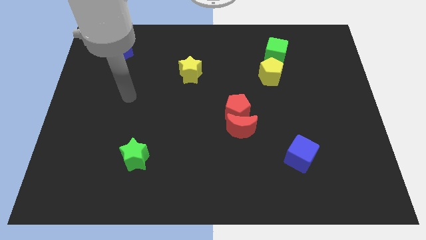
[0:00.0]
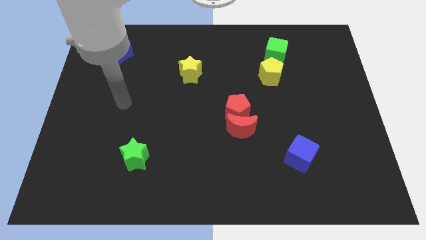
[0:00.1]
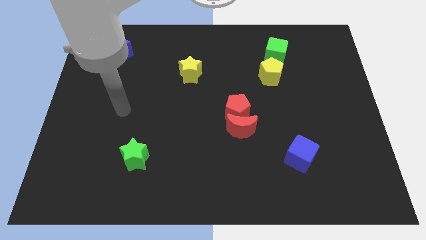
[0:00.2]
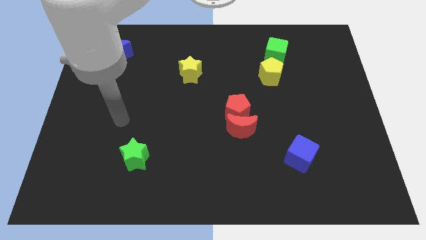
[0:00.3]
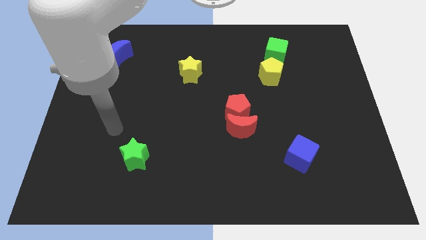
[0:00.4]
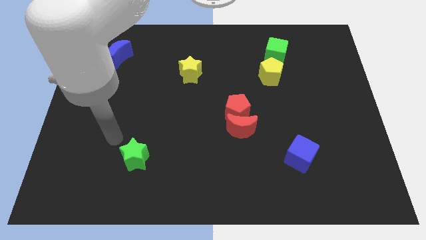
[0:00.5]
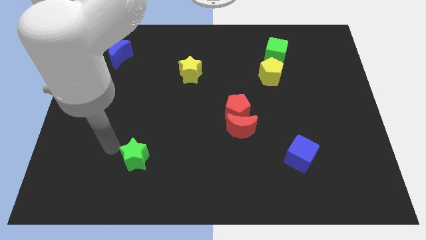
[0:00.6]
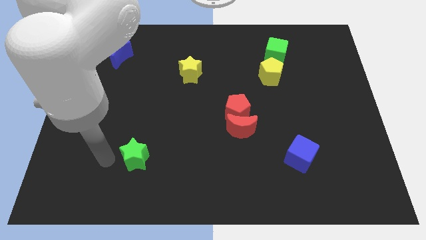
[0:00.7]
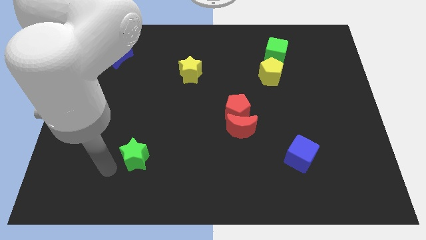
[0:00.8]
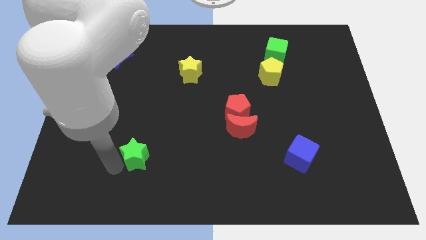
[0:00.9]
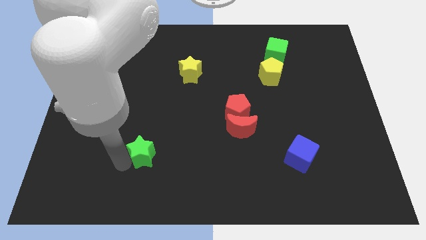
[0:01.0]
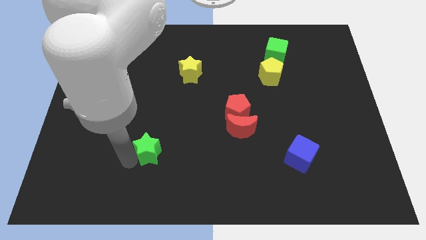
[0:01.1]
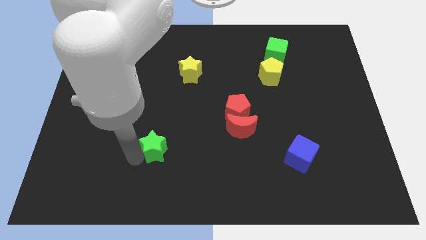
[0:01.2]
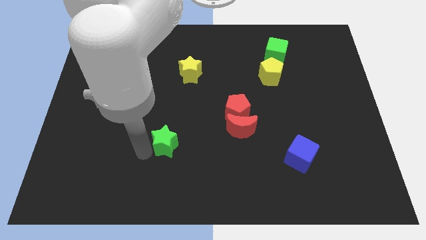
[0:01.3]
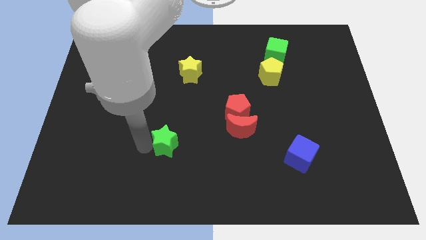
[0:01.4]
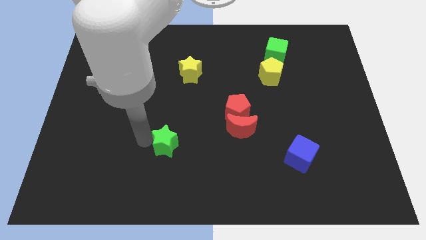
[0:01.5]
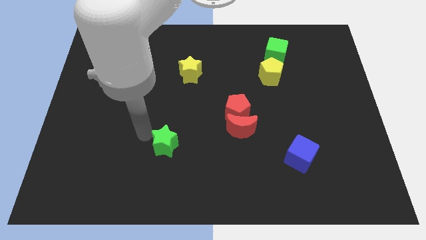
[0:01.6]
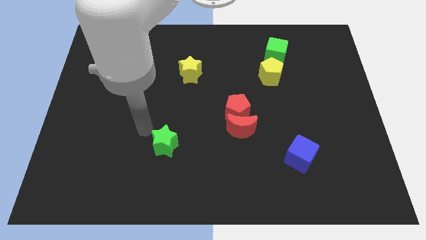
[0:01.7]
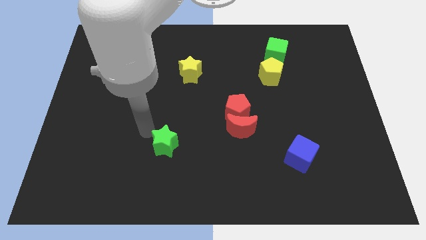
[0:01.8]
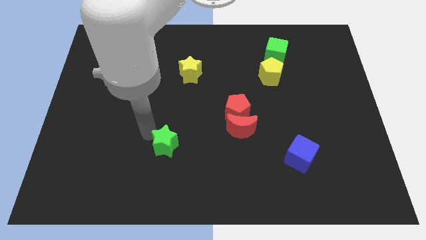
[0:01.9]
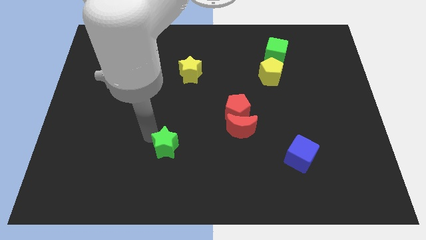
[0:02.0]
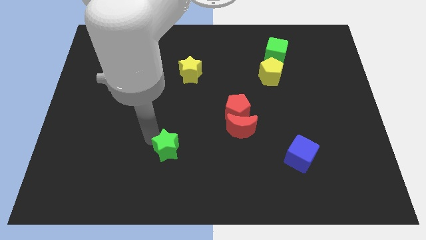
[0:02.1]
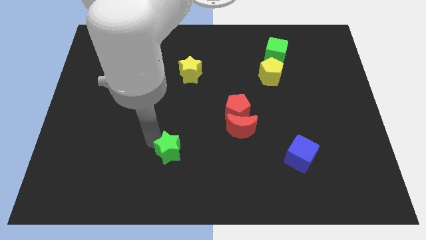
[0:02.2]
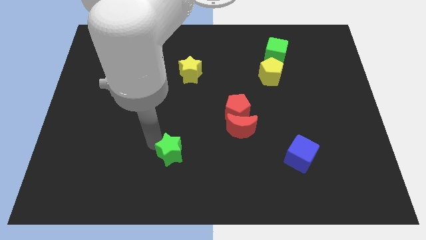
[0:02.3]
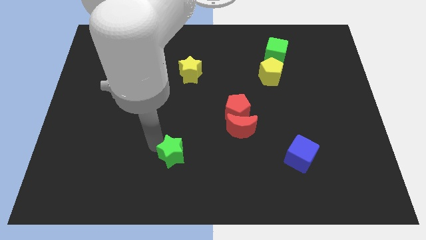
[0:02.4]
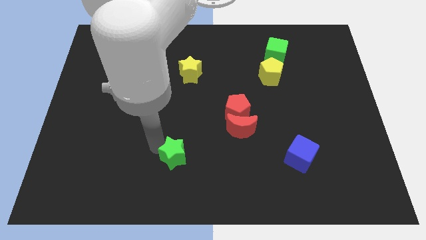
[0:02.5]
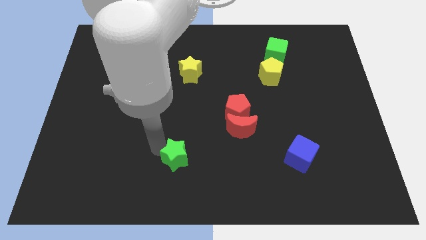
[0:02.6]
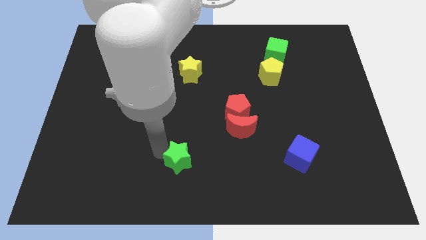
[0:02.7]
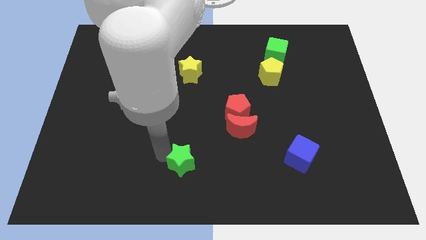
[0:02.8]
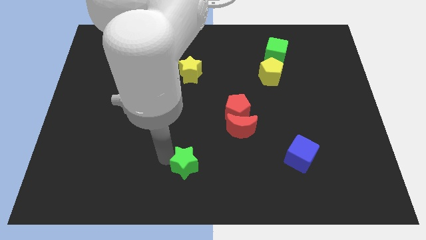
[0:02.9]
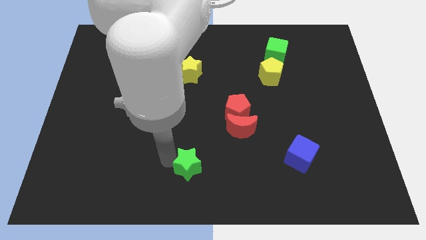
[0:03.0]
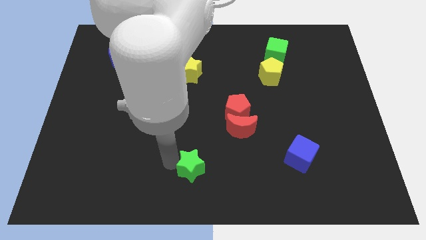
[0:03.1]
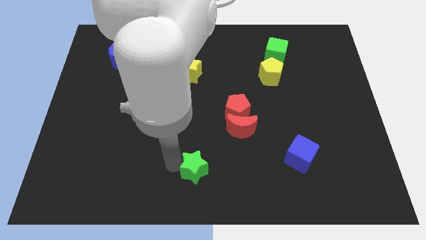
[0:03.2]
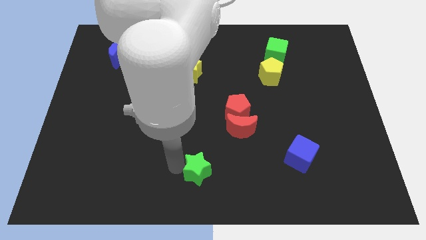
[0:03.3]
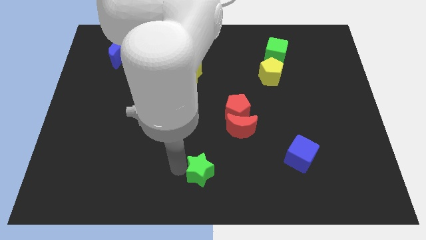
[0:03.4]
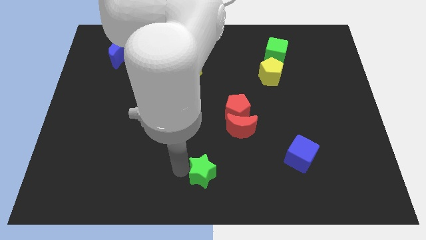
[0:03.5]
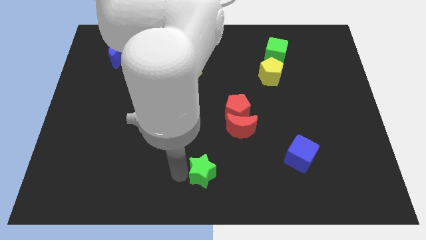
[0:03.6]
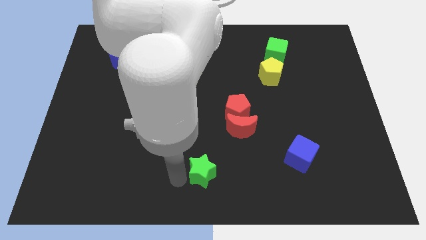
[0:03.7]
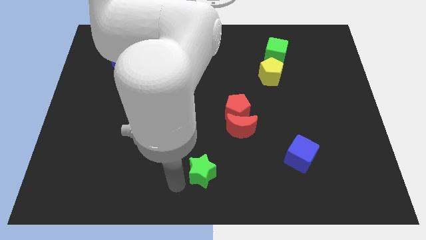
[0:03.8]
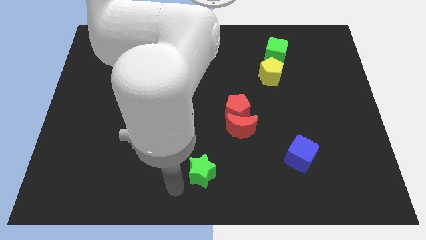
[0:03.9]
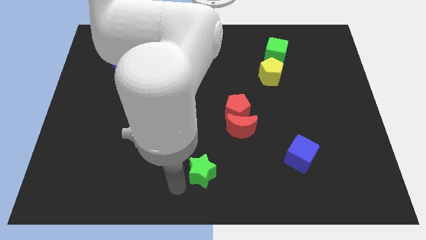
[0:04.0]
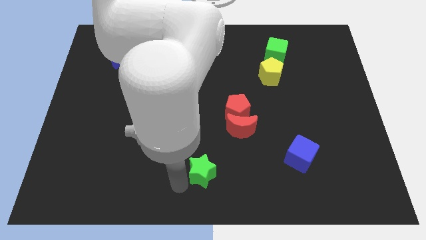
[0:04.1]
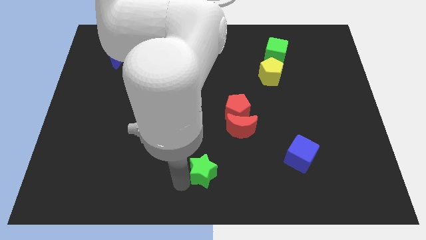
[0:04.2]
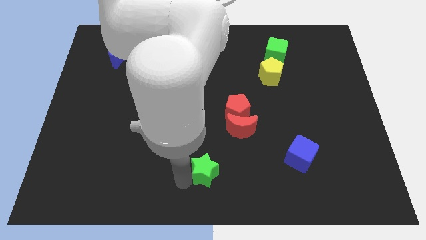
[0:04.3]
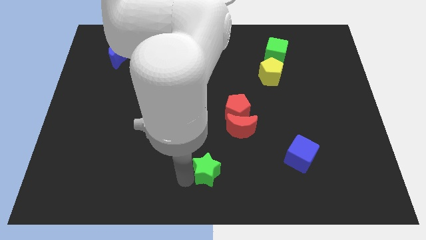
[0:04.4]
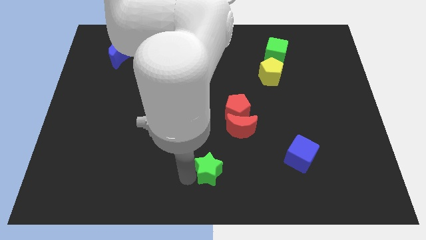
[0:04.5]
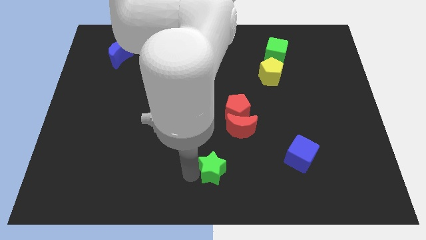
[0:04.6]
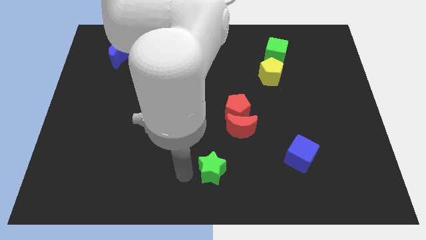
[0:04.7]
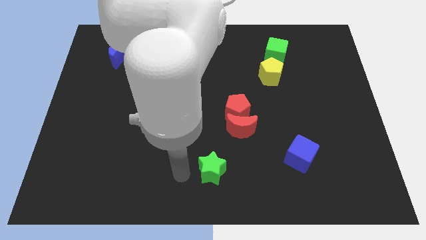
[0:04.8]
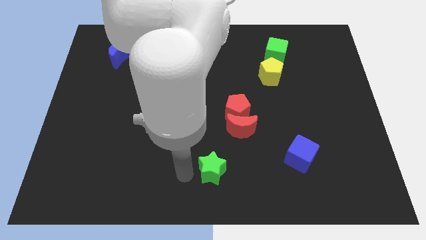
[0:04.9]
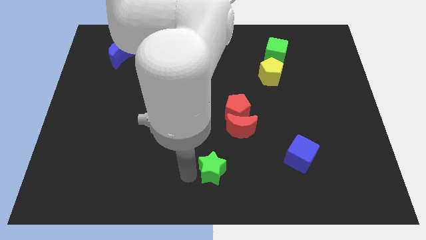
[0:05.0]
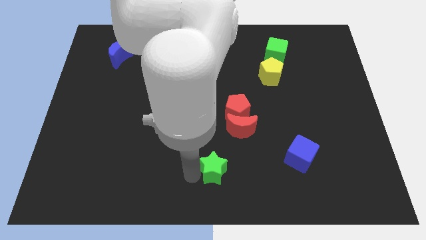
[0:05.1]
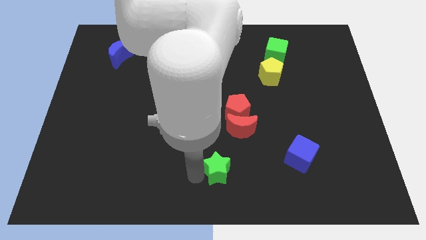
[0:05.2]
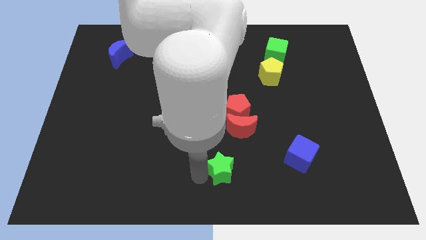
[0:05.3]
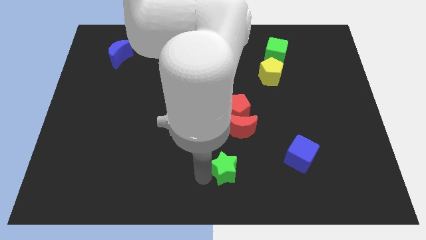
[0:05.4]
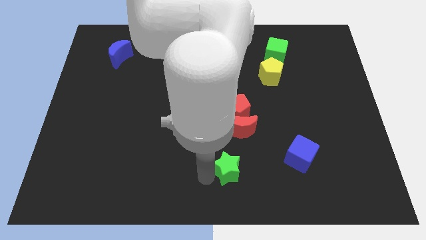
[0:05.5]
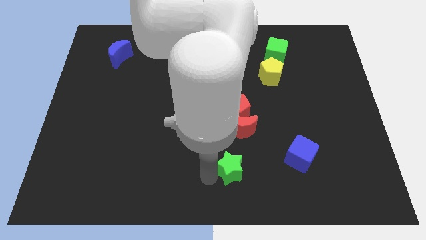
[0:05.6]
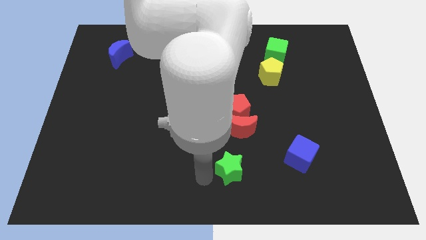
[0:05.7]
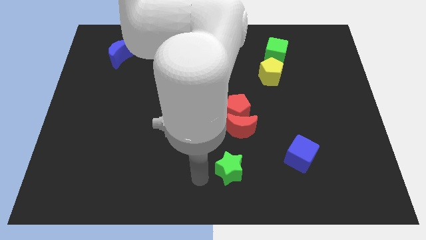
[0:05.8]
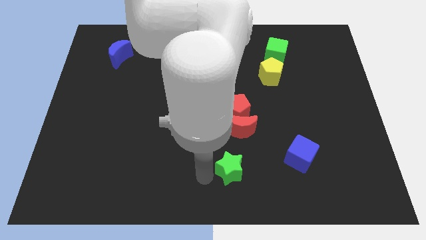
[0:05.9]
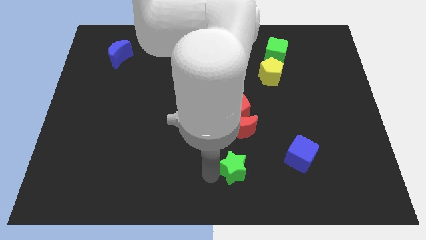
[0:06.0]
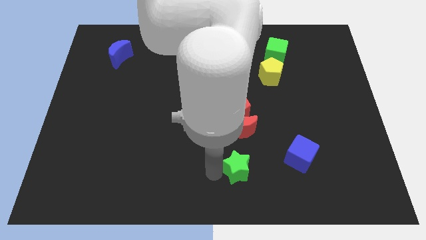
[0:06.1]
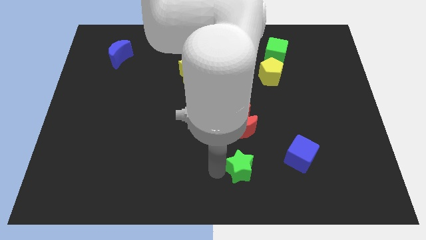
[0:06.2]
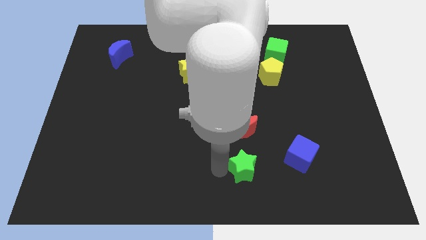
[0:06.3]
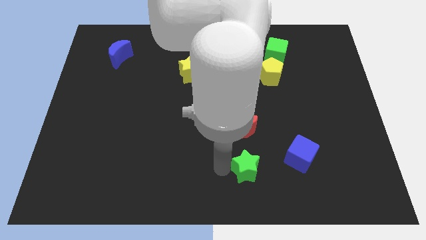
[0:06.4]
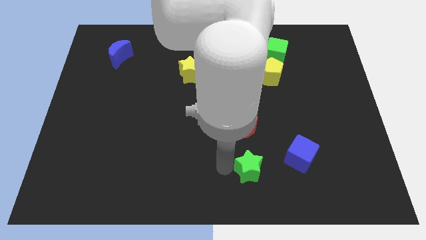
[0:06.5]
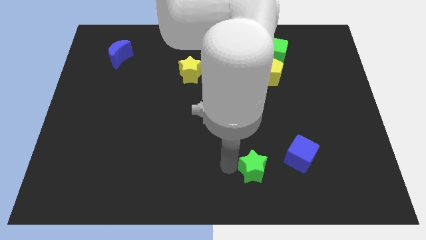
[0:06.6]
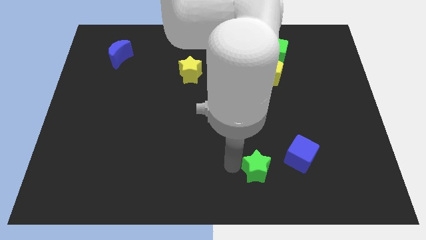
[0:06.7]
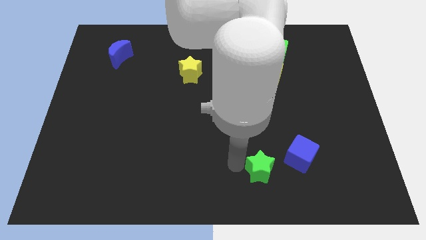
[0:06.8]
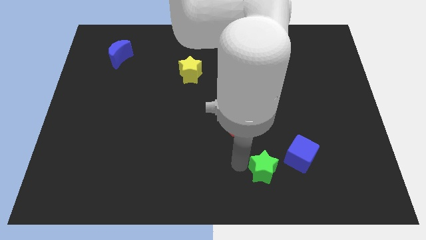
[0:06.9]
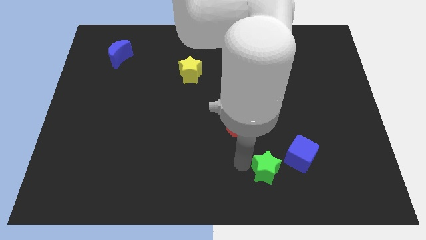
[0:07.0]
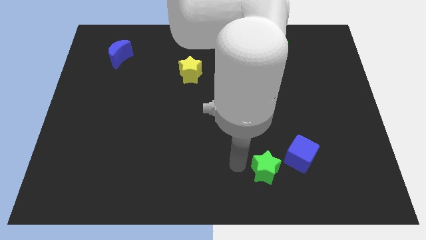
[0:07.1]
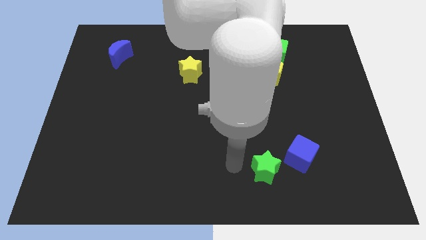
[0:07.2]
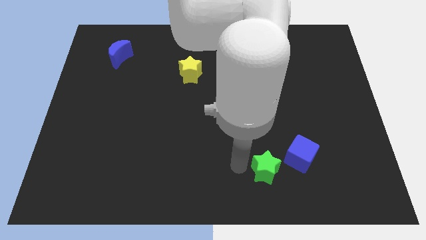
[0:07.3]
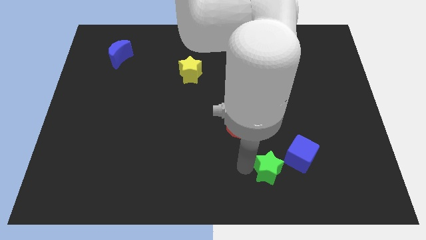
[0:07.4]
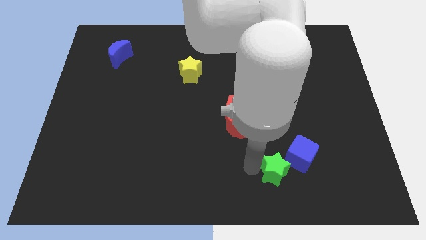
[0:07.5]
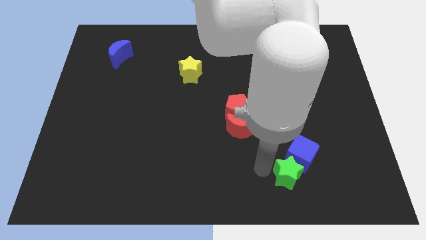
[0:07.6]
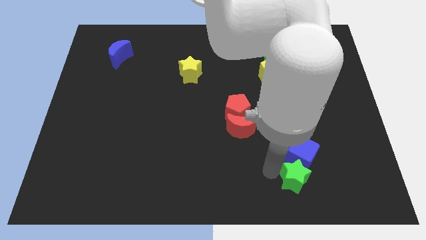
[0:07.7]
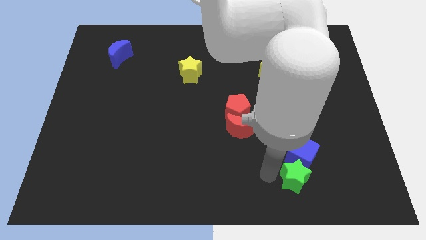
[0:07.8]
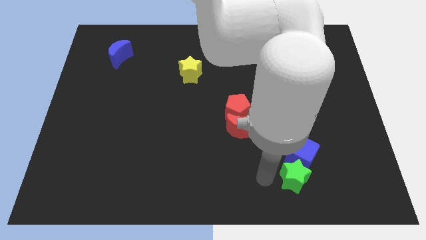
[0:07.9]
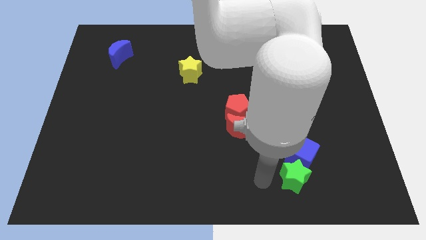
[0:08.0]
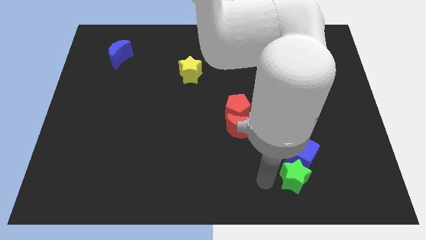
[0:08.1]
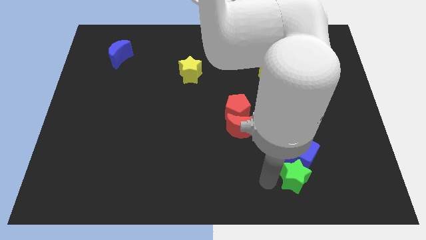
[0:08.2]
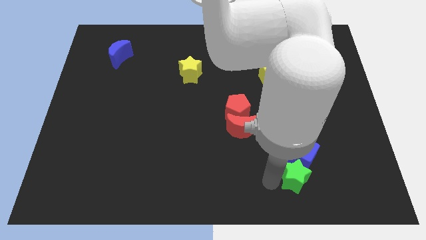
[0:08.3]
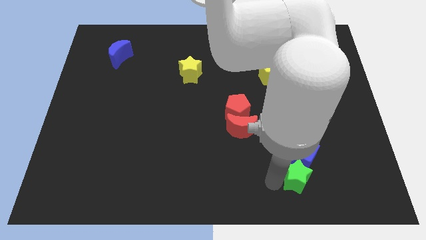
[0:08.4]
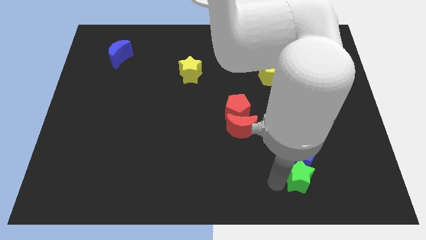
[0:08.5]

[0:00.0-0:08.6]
move the green star diagonally down and to the right of the blue cube
